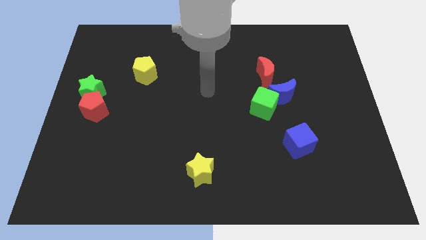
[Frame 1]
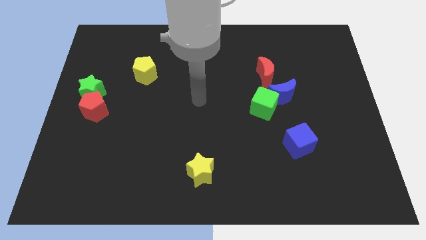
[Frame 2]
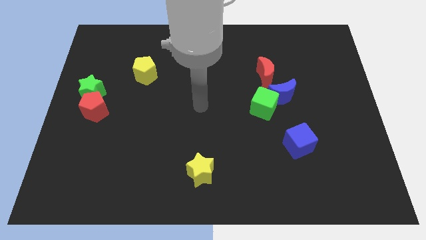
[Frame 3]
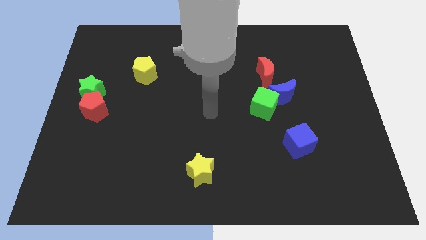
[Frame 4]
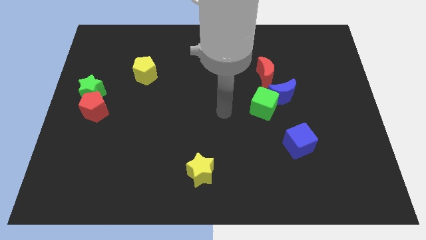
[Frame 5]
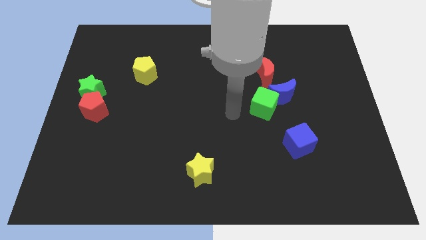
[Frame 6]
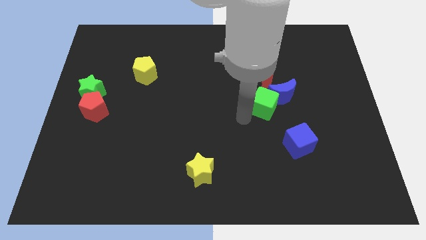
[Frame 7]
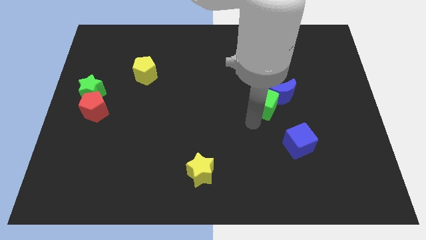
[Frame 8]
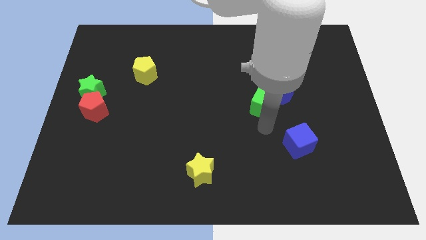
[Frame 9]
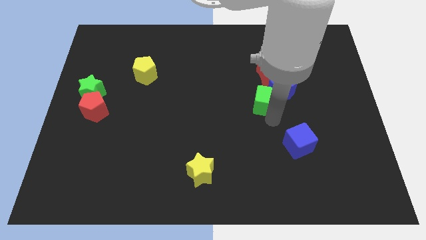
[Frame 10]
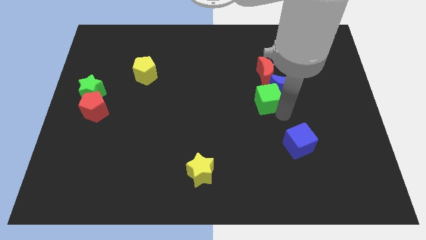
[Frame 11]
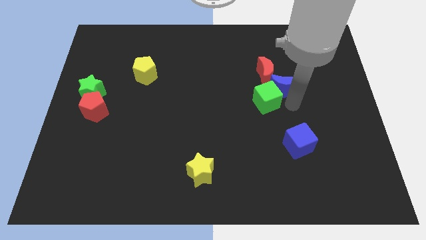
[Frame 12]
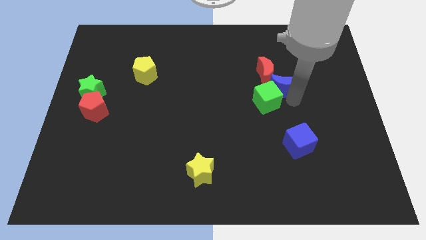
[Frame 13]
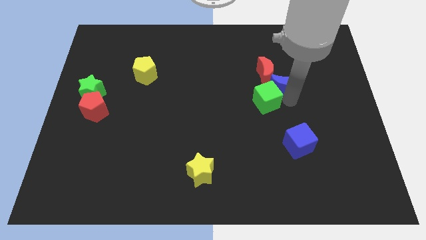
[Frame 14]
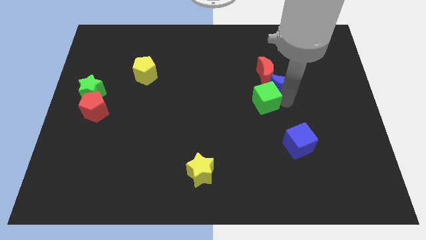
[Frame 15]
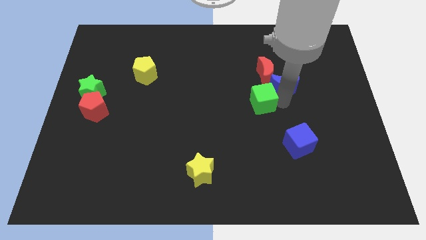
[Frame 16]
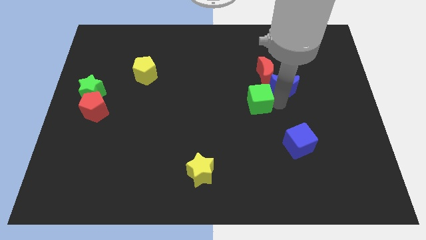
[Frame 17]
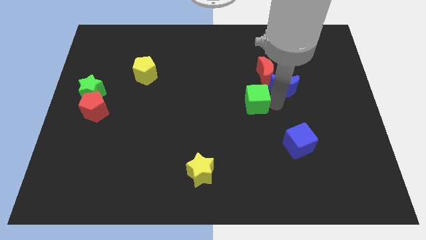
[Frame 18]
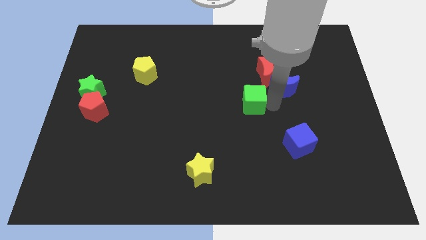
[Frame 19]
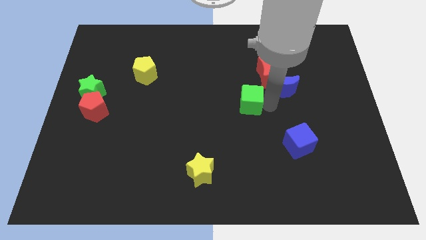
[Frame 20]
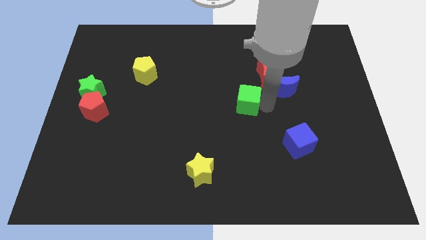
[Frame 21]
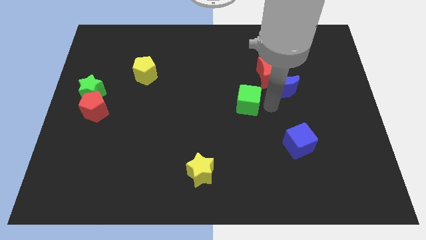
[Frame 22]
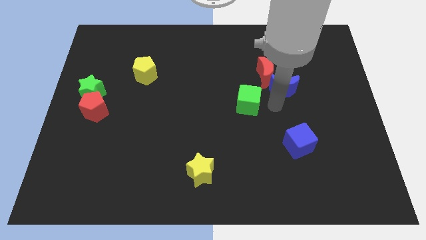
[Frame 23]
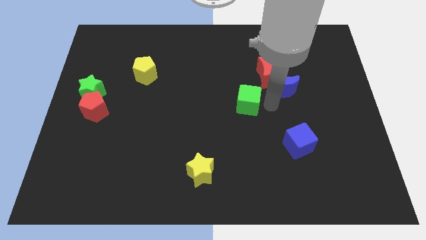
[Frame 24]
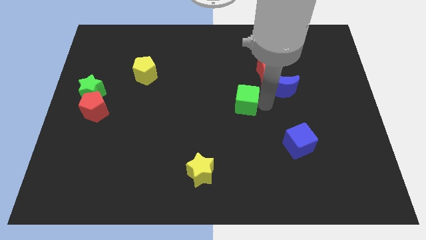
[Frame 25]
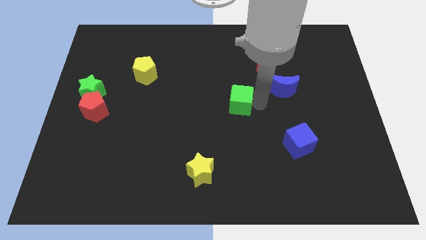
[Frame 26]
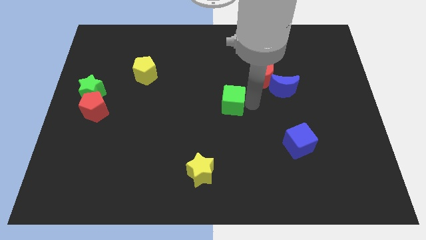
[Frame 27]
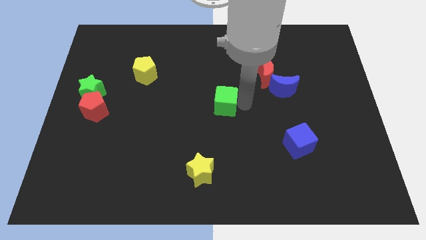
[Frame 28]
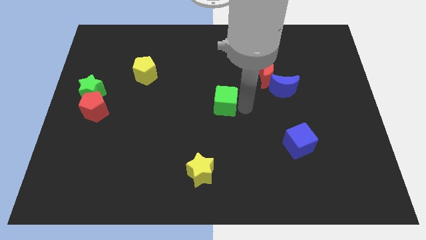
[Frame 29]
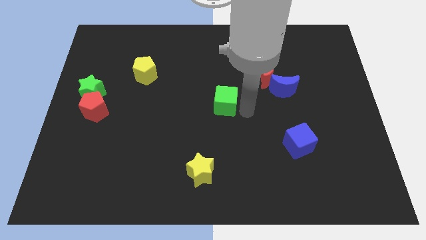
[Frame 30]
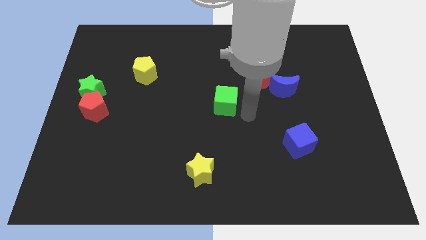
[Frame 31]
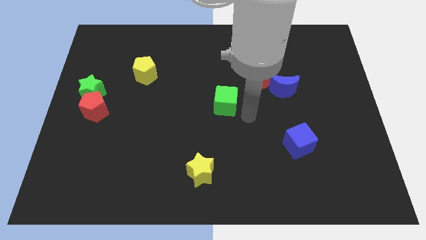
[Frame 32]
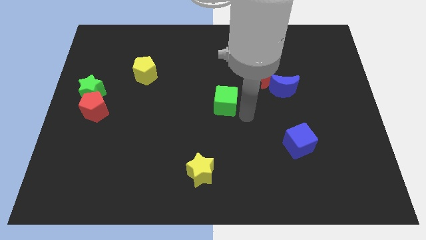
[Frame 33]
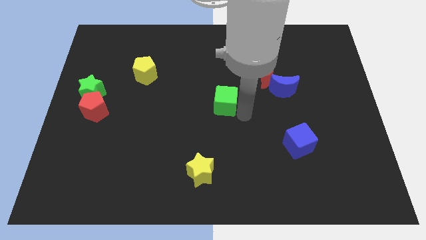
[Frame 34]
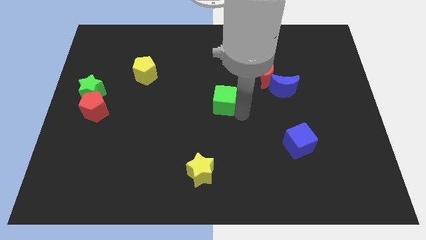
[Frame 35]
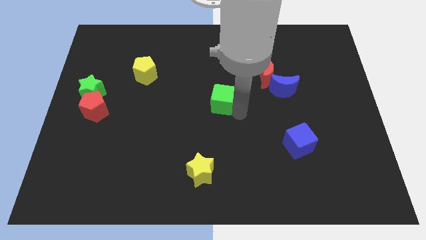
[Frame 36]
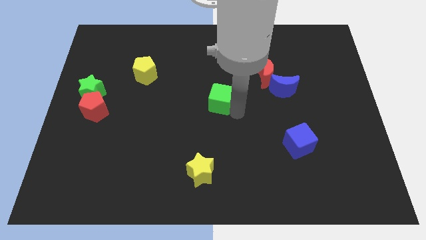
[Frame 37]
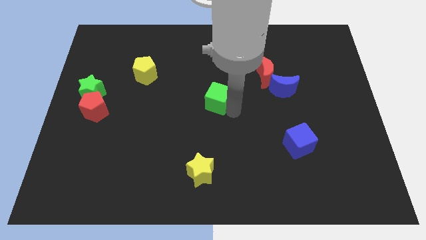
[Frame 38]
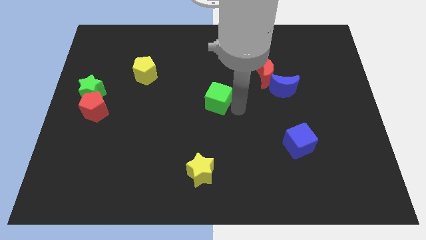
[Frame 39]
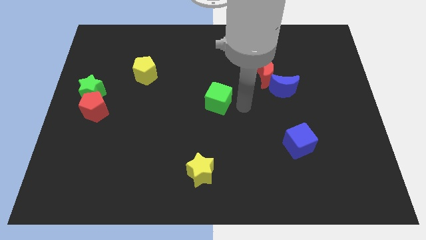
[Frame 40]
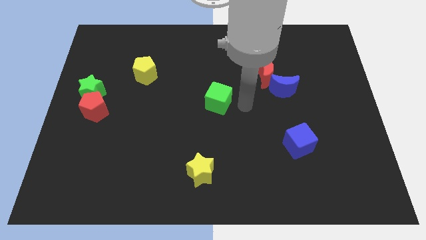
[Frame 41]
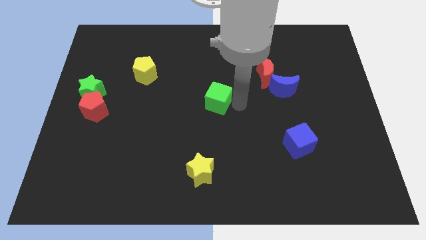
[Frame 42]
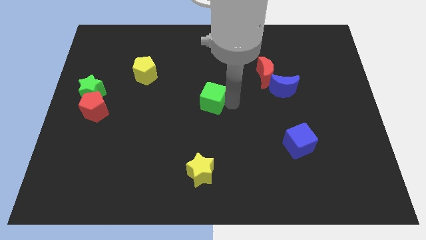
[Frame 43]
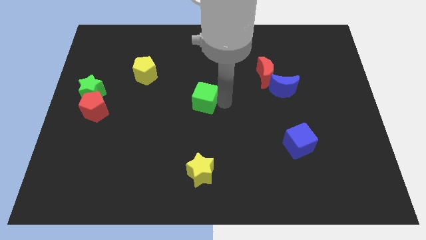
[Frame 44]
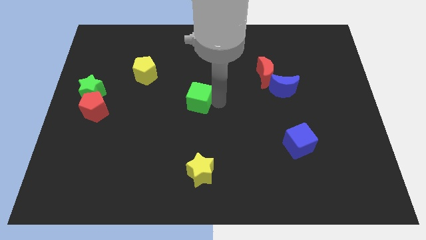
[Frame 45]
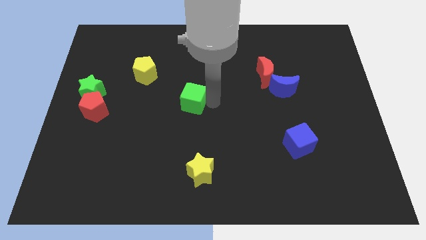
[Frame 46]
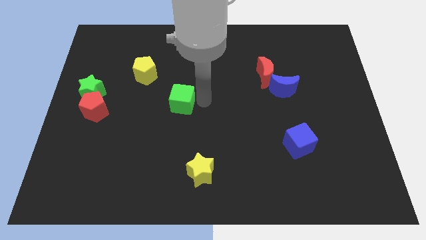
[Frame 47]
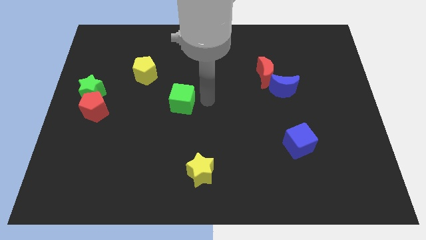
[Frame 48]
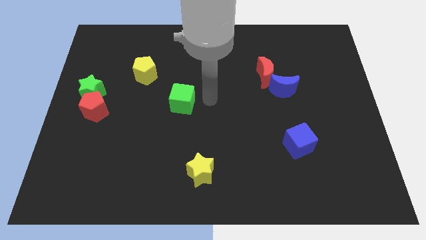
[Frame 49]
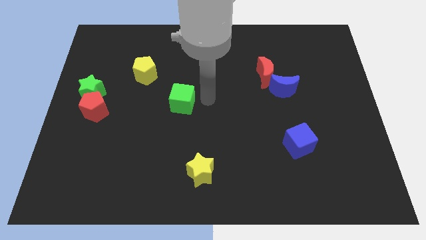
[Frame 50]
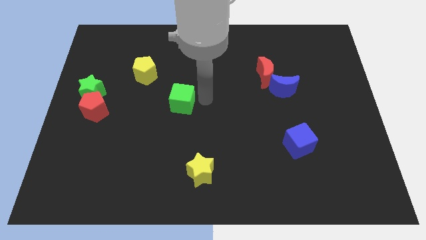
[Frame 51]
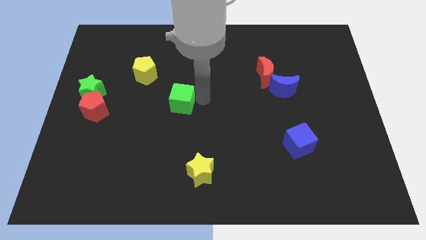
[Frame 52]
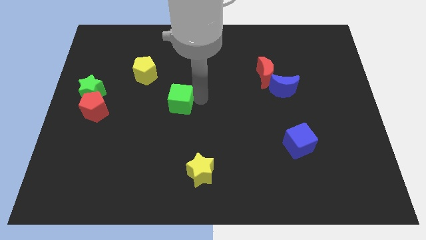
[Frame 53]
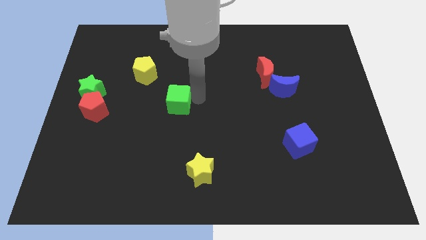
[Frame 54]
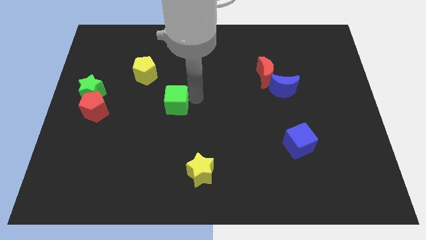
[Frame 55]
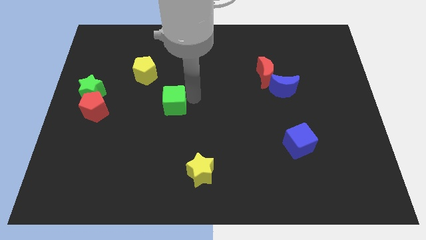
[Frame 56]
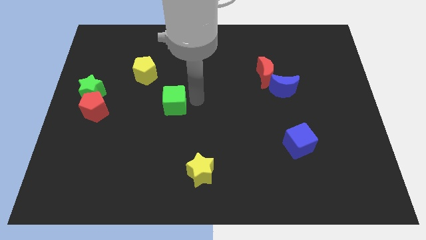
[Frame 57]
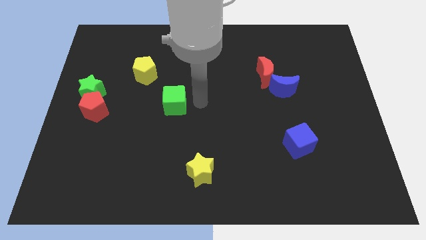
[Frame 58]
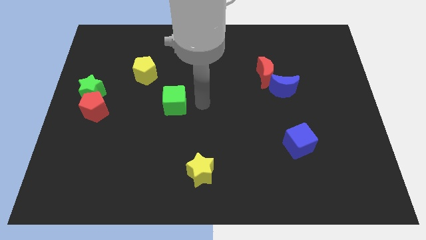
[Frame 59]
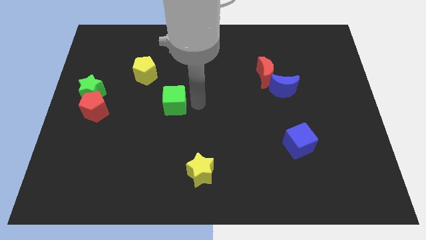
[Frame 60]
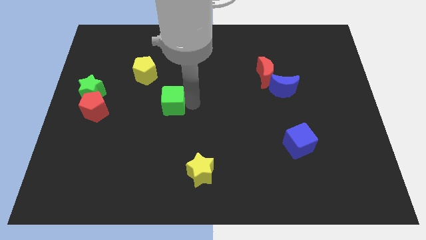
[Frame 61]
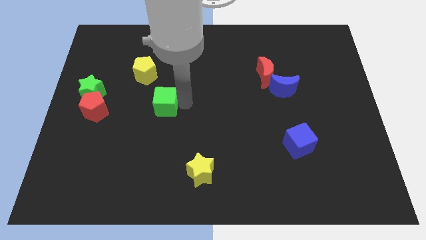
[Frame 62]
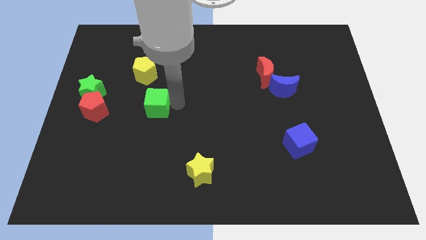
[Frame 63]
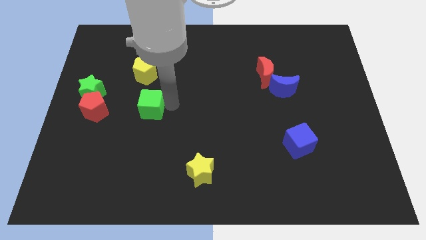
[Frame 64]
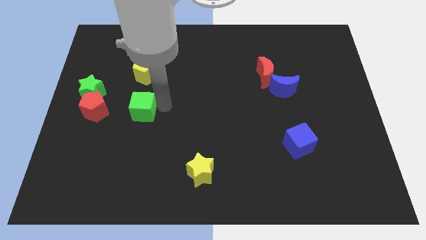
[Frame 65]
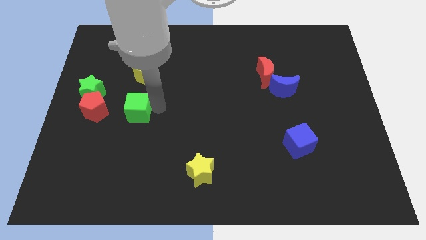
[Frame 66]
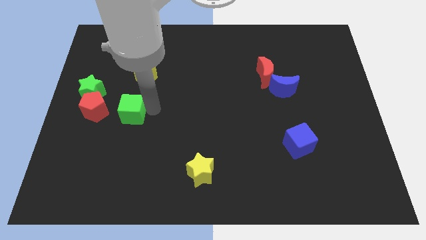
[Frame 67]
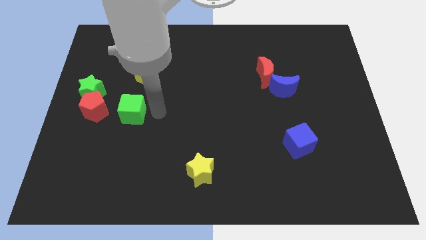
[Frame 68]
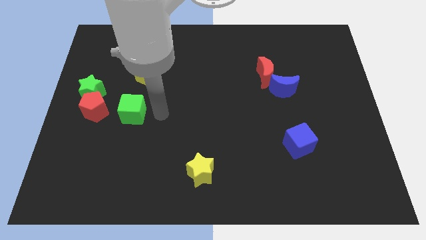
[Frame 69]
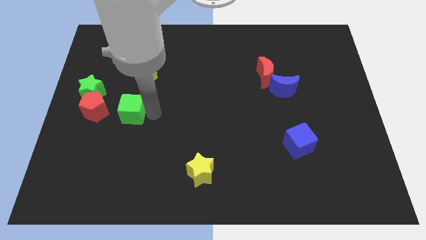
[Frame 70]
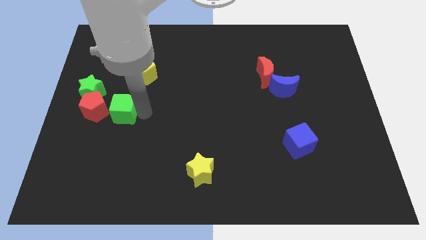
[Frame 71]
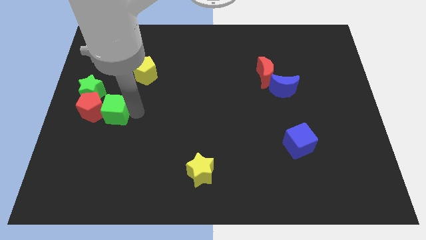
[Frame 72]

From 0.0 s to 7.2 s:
put the green cube next to the red pentagon
